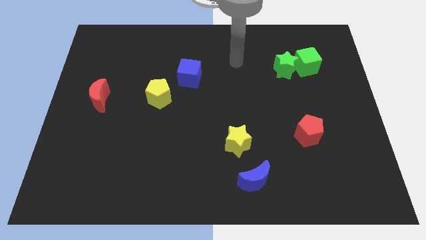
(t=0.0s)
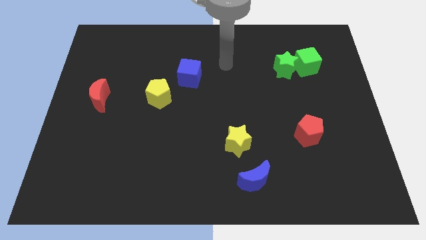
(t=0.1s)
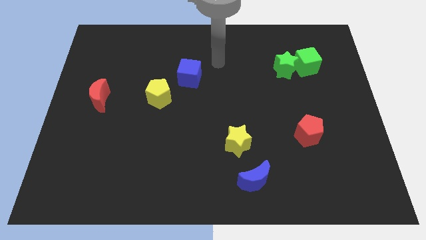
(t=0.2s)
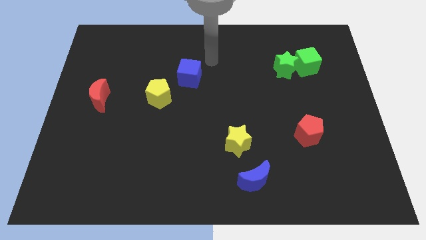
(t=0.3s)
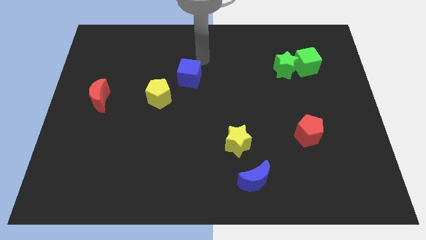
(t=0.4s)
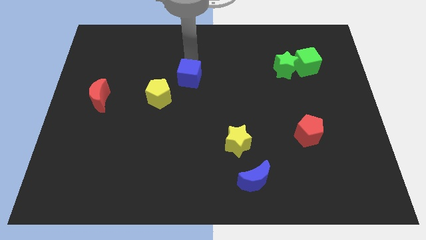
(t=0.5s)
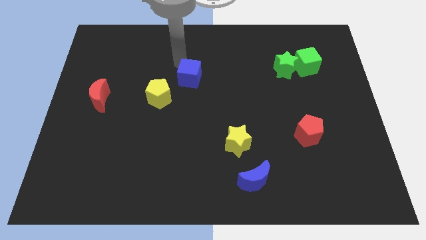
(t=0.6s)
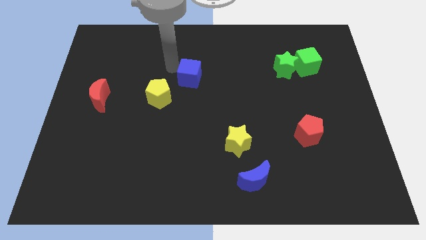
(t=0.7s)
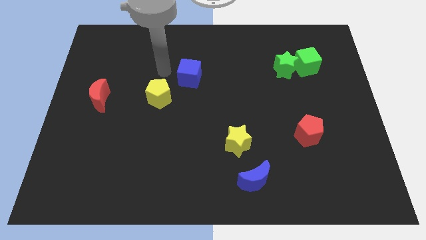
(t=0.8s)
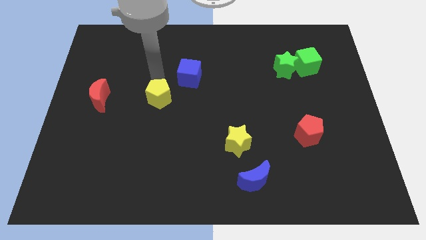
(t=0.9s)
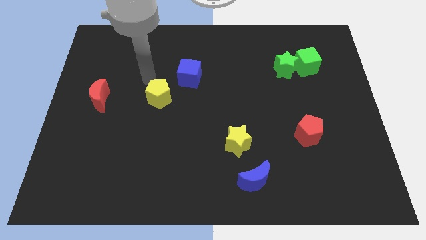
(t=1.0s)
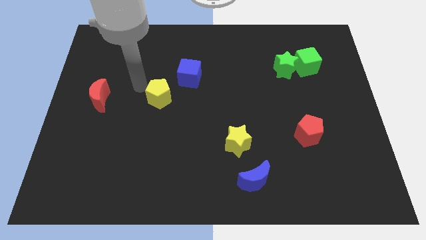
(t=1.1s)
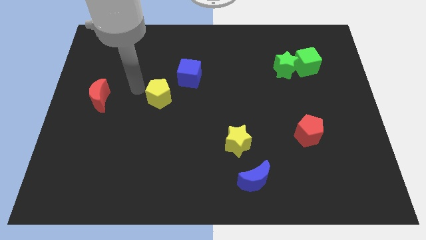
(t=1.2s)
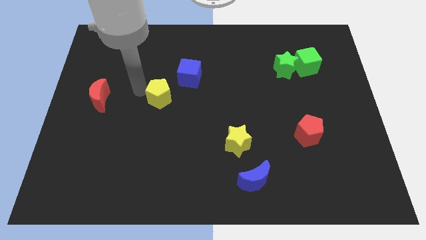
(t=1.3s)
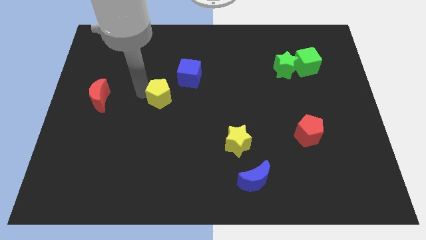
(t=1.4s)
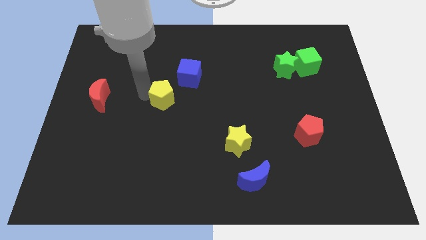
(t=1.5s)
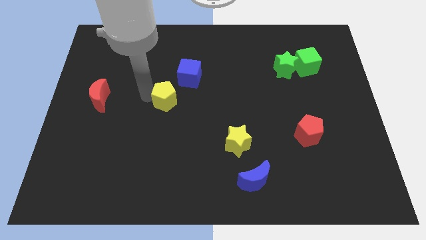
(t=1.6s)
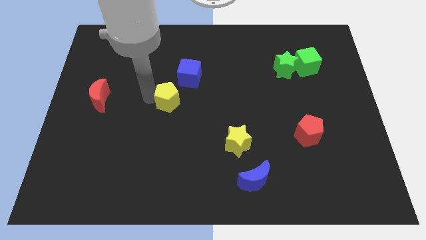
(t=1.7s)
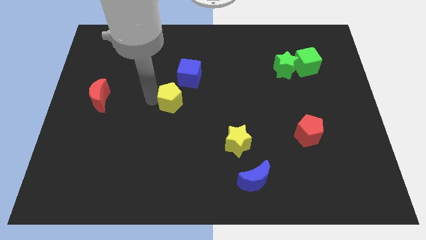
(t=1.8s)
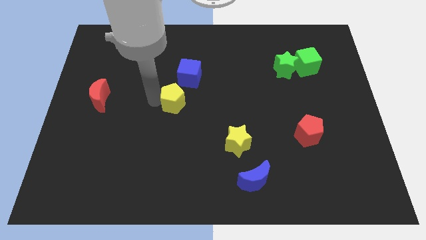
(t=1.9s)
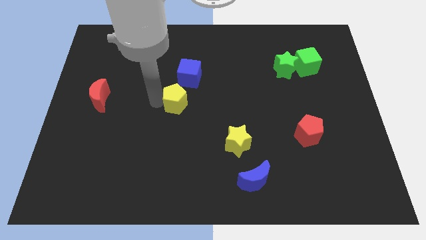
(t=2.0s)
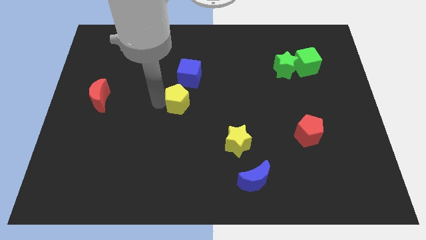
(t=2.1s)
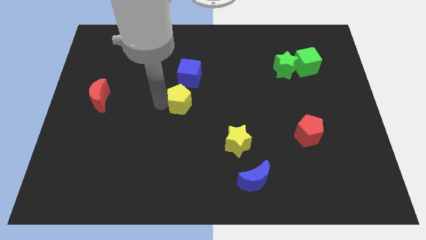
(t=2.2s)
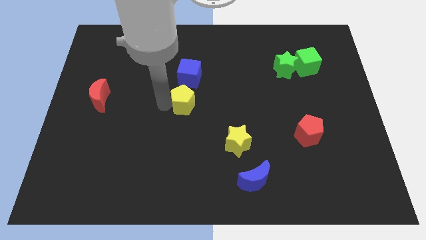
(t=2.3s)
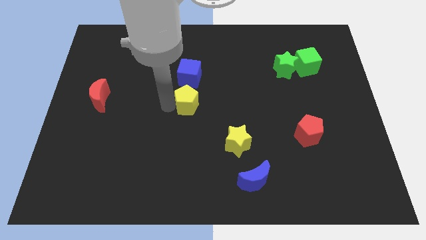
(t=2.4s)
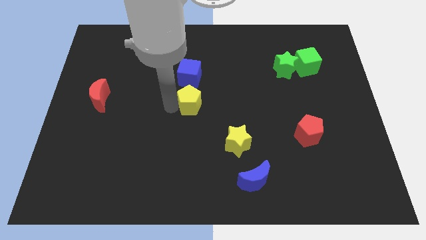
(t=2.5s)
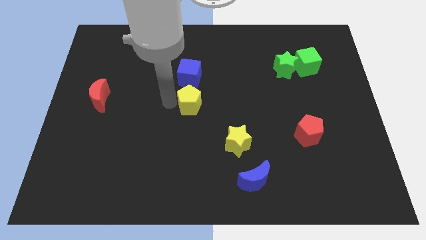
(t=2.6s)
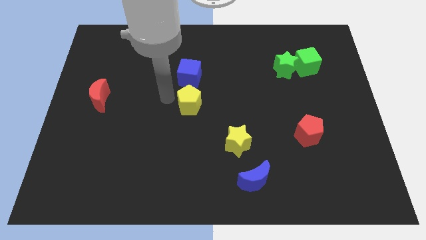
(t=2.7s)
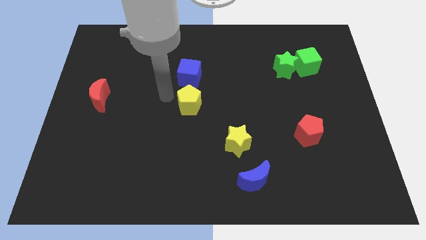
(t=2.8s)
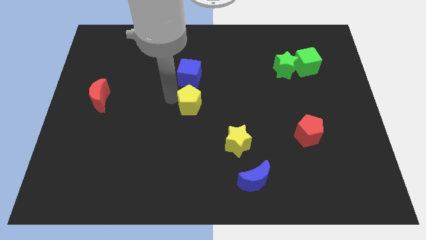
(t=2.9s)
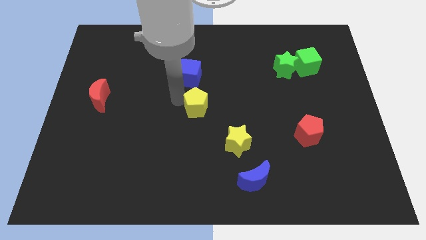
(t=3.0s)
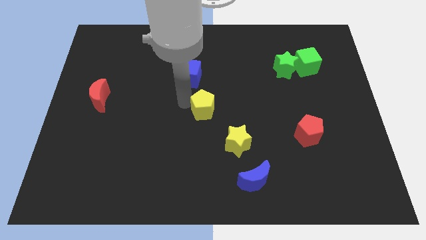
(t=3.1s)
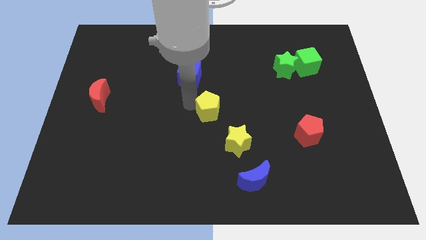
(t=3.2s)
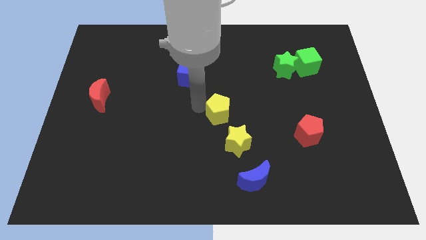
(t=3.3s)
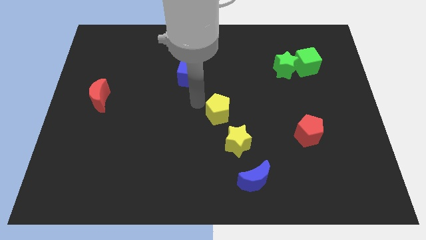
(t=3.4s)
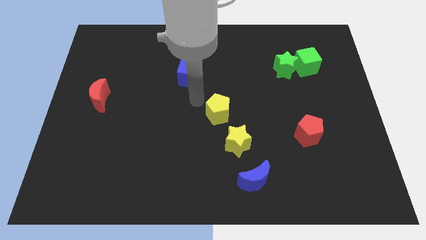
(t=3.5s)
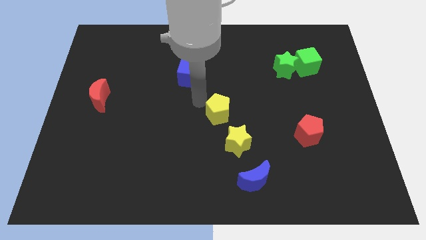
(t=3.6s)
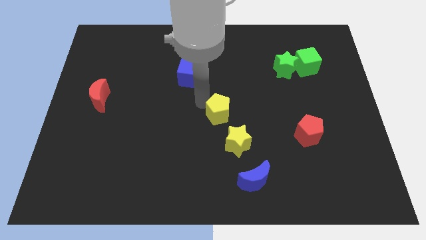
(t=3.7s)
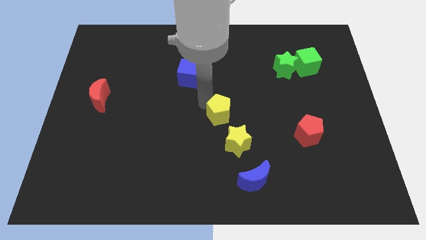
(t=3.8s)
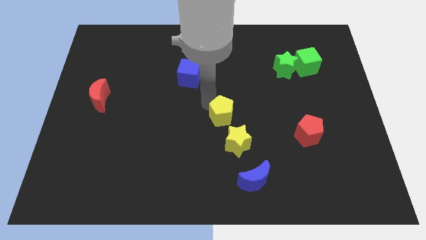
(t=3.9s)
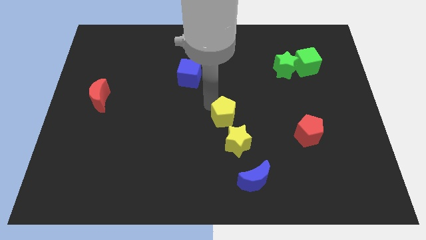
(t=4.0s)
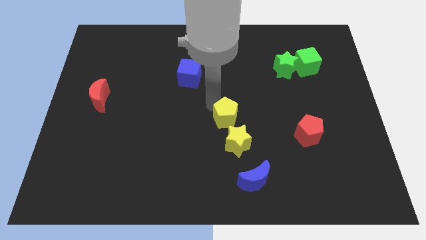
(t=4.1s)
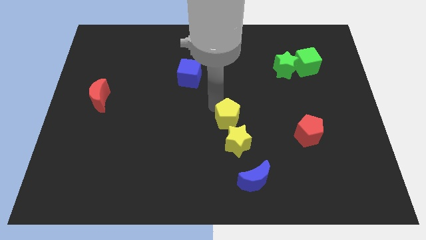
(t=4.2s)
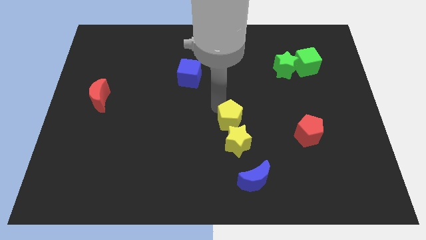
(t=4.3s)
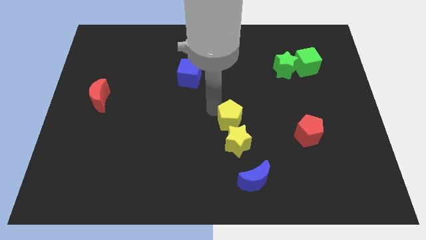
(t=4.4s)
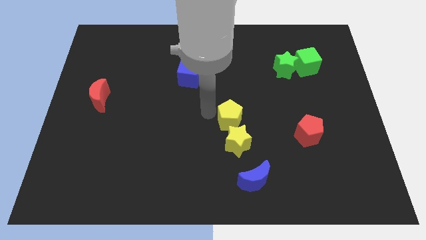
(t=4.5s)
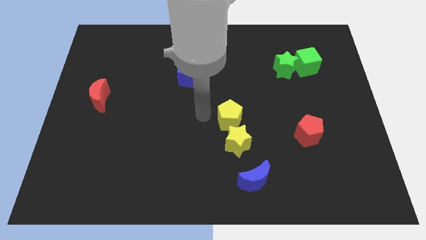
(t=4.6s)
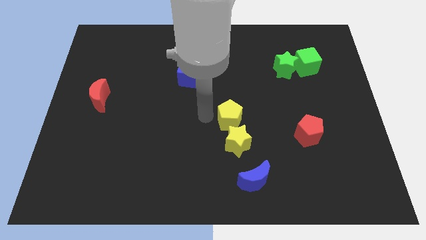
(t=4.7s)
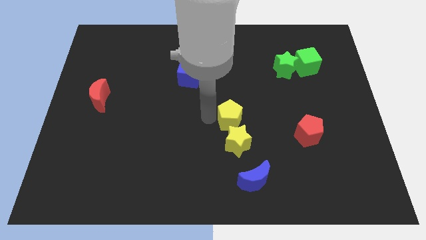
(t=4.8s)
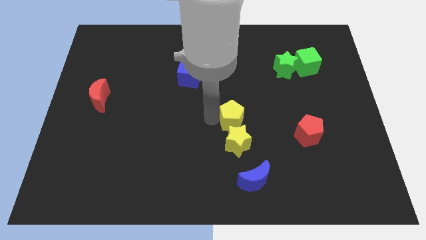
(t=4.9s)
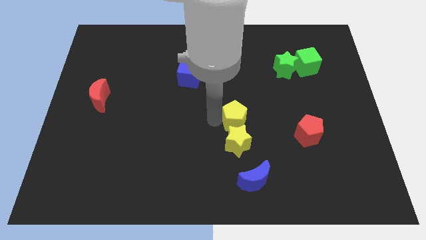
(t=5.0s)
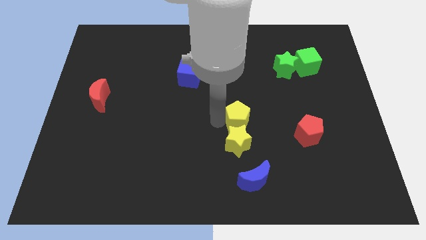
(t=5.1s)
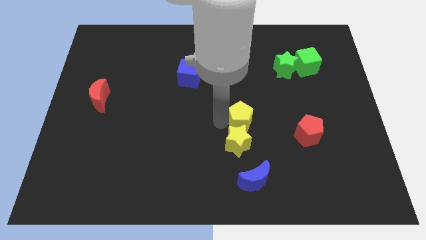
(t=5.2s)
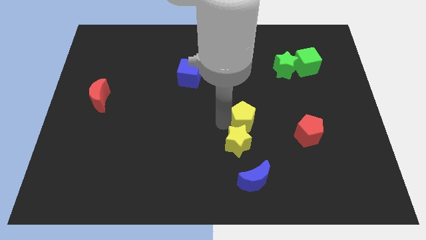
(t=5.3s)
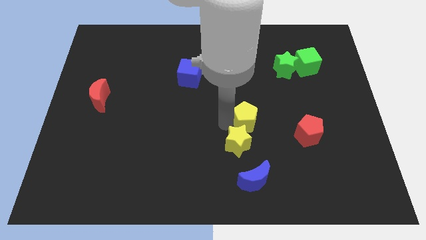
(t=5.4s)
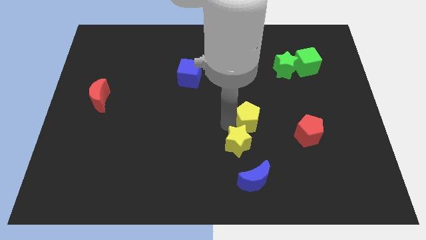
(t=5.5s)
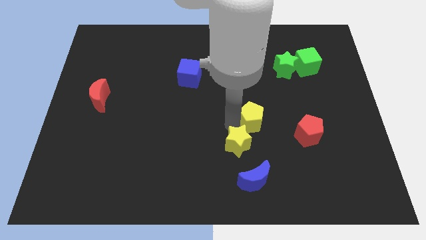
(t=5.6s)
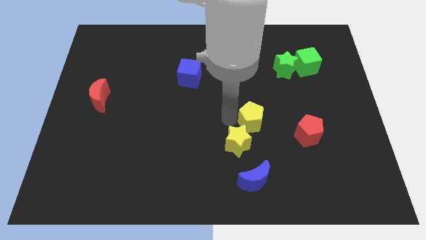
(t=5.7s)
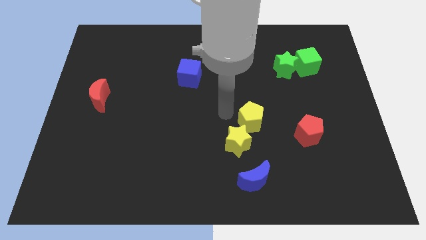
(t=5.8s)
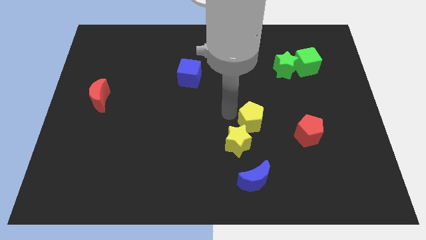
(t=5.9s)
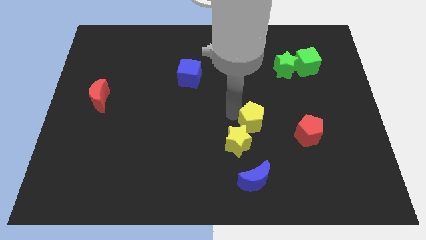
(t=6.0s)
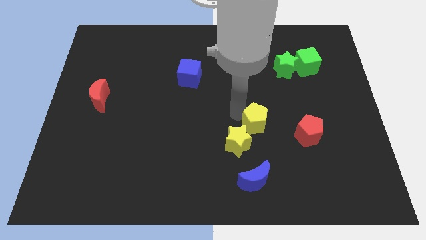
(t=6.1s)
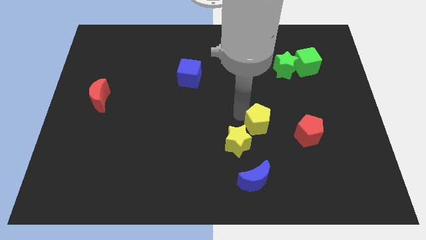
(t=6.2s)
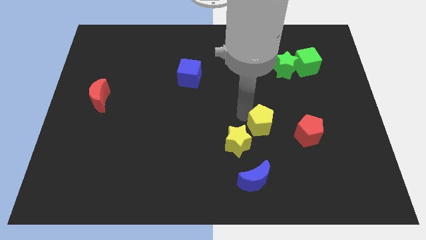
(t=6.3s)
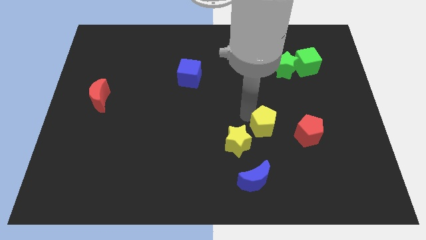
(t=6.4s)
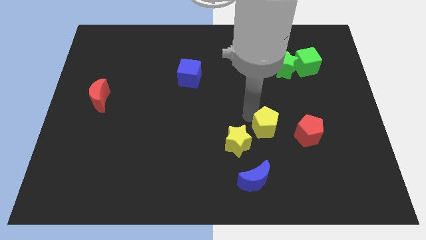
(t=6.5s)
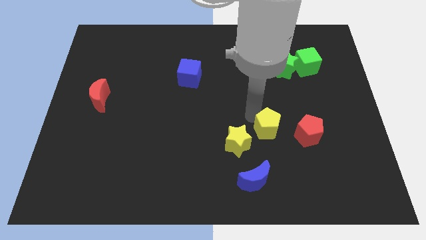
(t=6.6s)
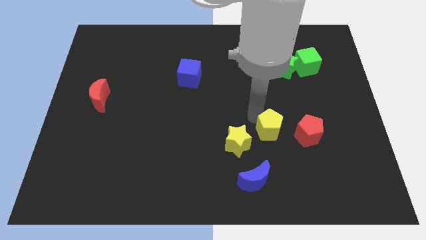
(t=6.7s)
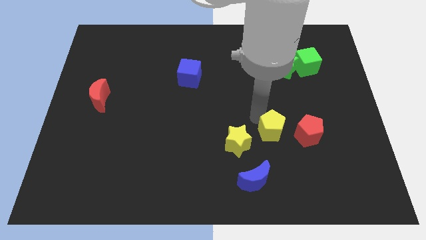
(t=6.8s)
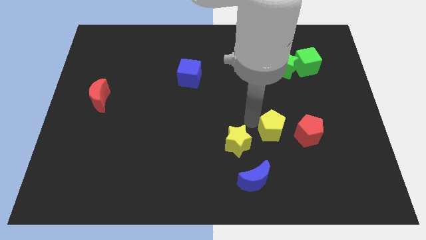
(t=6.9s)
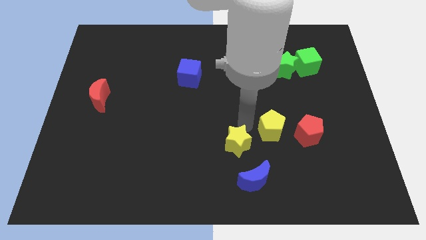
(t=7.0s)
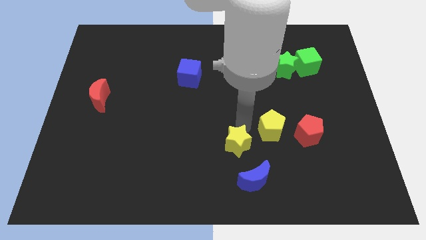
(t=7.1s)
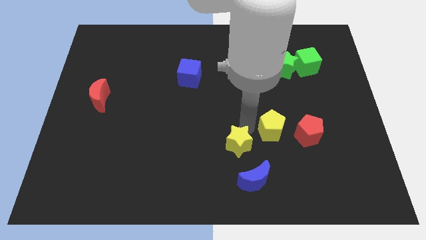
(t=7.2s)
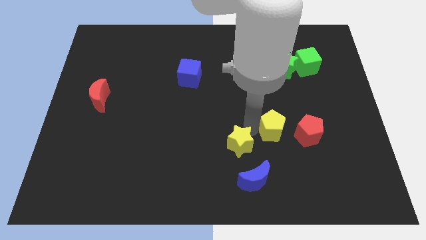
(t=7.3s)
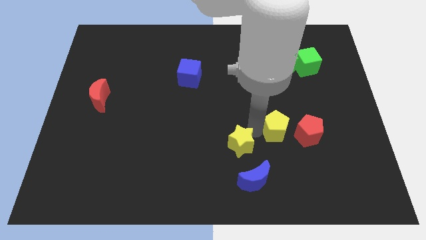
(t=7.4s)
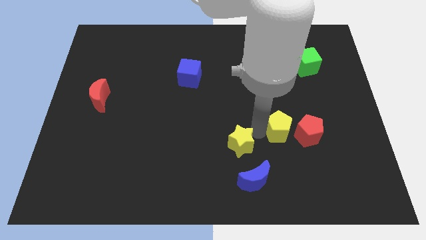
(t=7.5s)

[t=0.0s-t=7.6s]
put the yellow pentagon to the red pentagon
